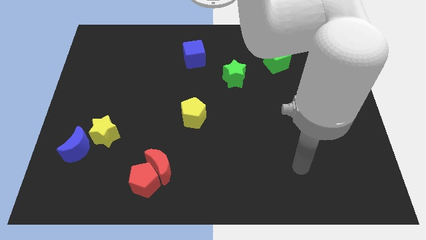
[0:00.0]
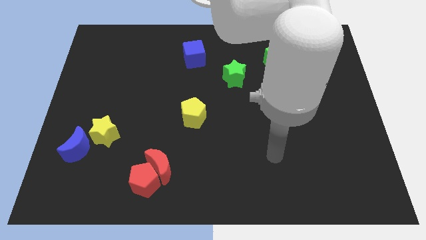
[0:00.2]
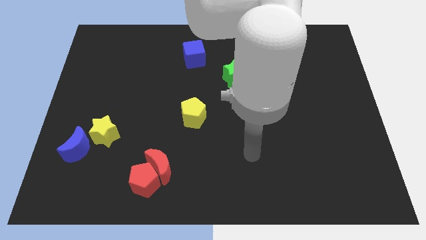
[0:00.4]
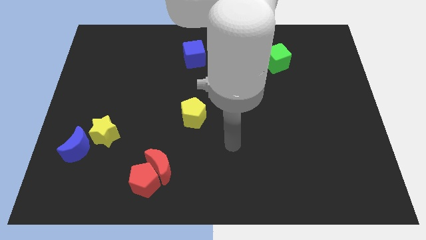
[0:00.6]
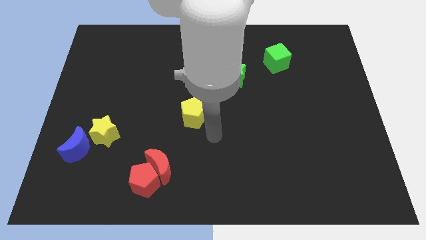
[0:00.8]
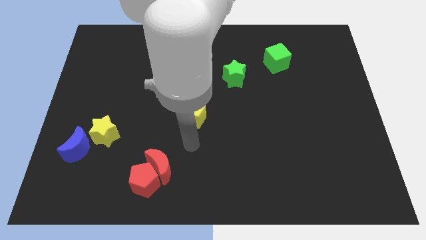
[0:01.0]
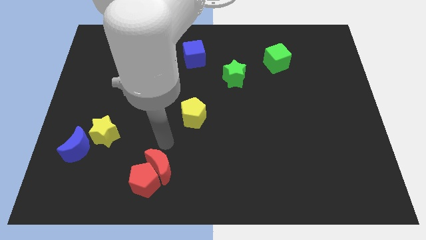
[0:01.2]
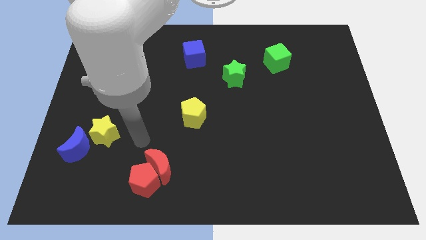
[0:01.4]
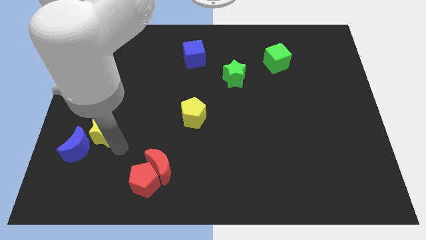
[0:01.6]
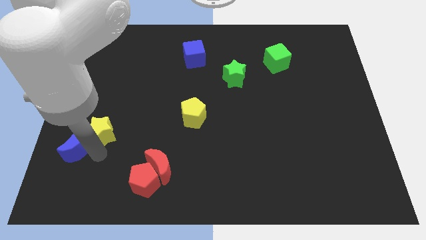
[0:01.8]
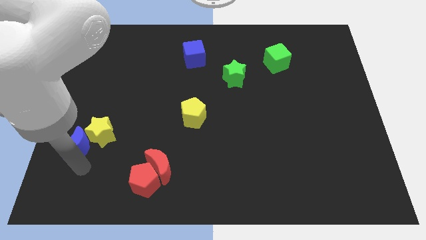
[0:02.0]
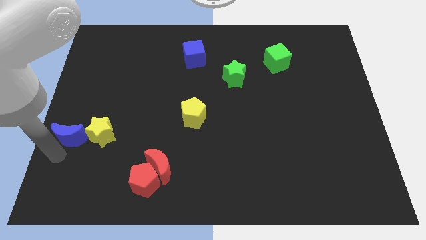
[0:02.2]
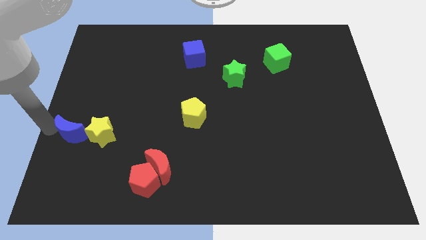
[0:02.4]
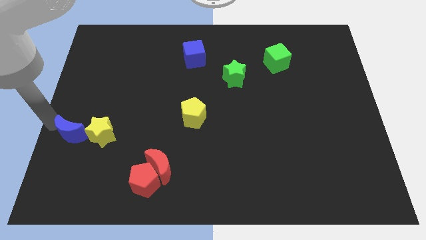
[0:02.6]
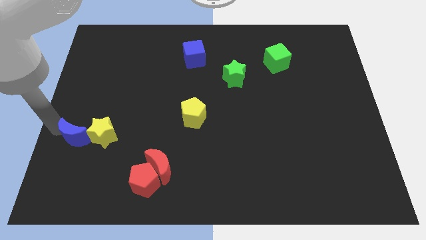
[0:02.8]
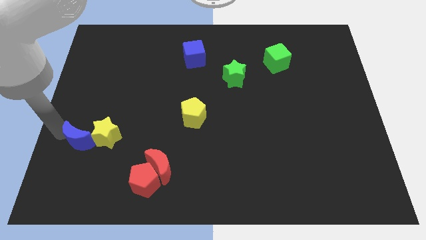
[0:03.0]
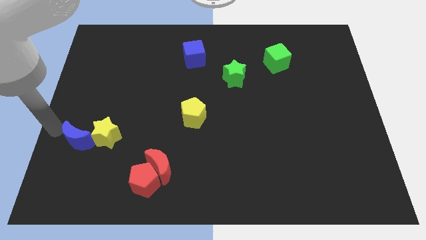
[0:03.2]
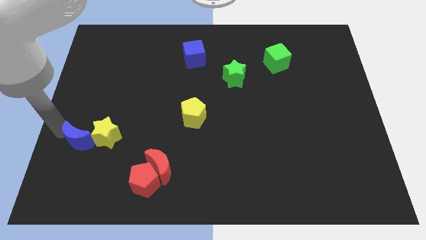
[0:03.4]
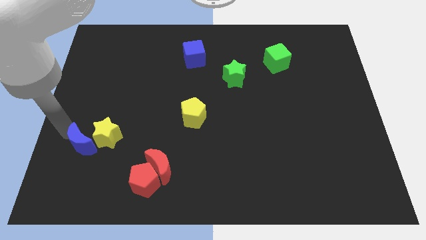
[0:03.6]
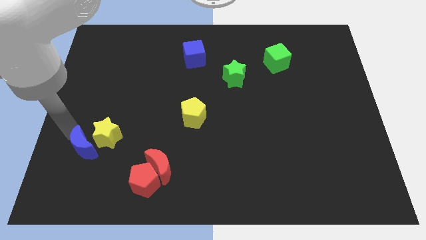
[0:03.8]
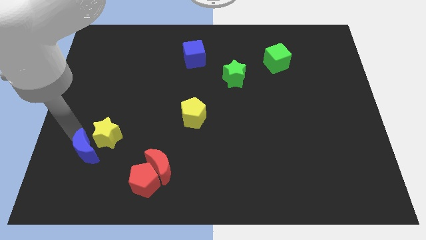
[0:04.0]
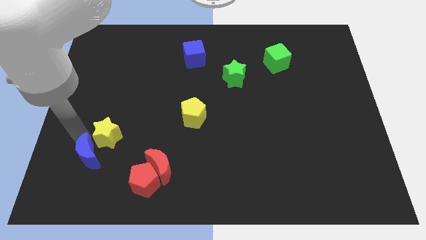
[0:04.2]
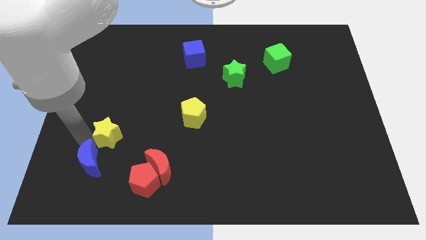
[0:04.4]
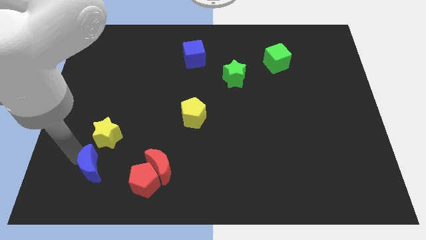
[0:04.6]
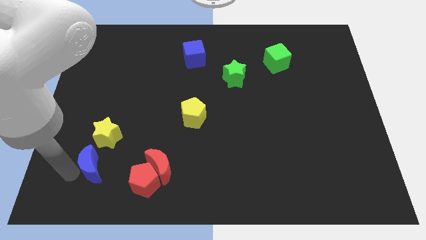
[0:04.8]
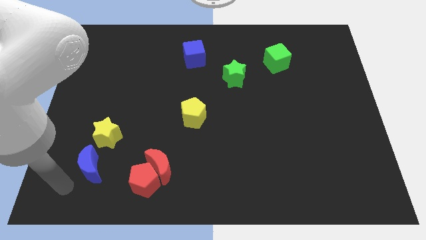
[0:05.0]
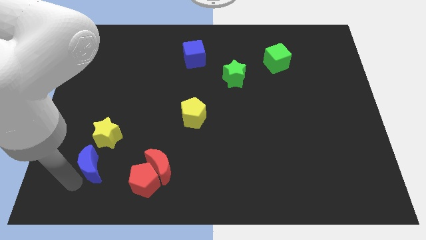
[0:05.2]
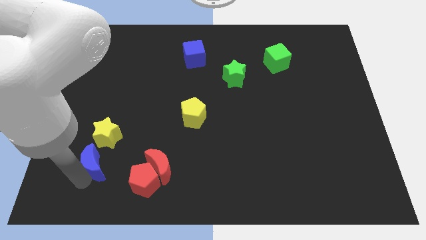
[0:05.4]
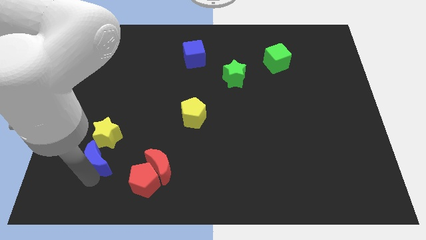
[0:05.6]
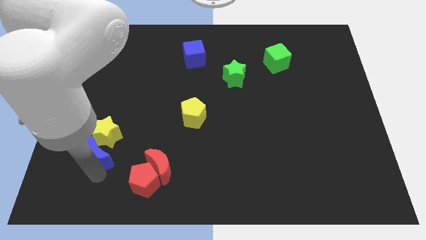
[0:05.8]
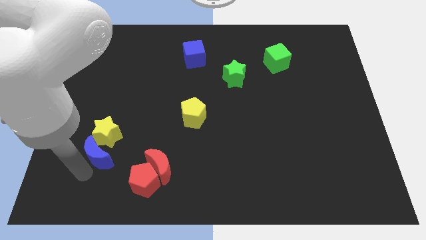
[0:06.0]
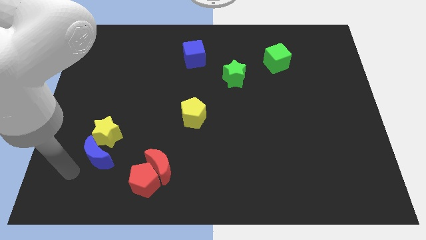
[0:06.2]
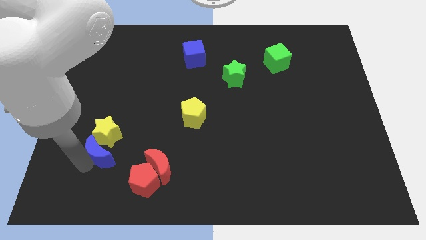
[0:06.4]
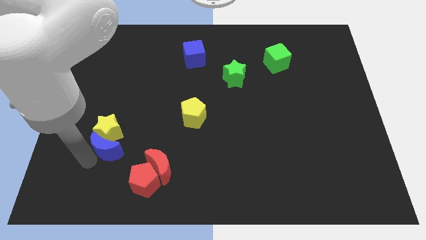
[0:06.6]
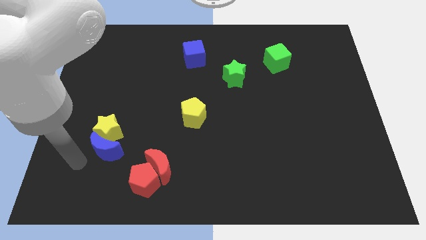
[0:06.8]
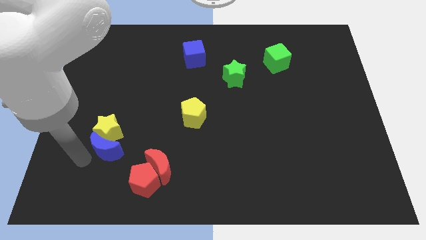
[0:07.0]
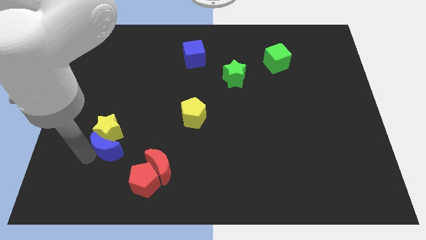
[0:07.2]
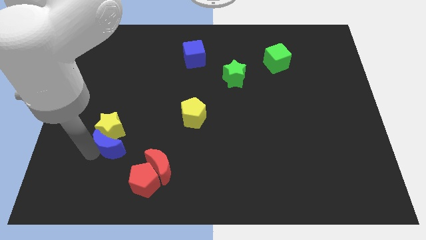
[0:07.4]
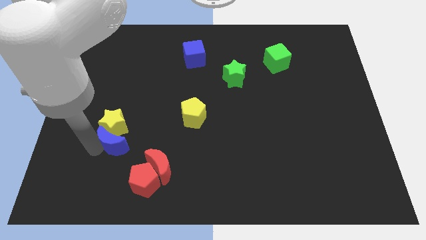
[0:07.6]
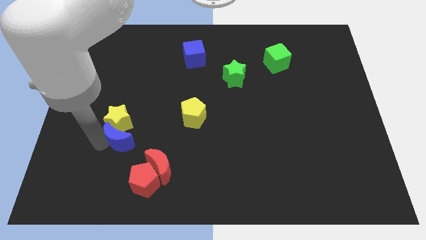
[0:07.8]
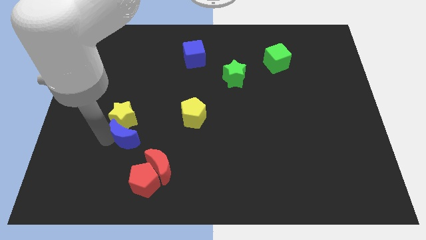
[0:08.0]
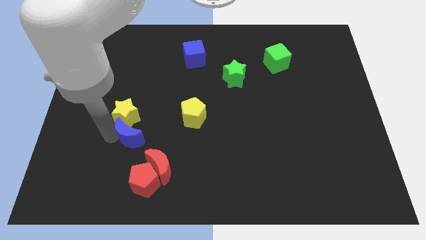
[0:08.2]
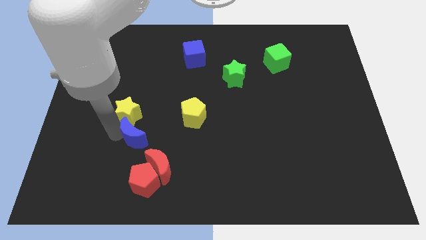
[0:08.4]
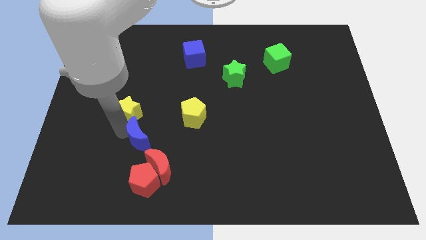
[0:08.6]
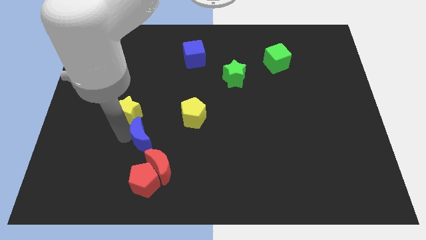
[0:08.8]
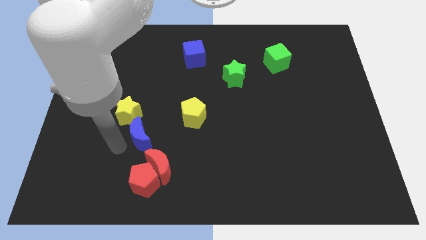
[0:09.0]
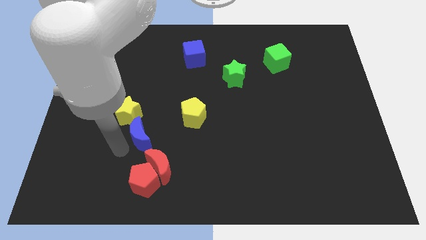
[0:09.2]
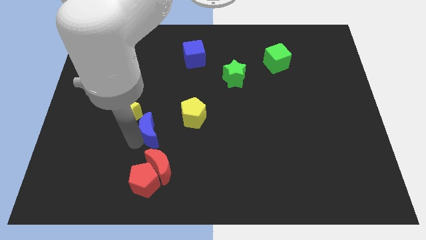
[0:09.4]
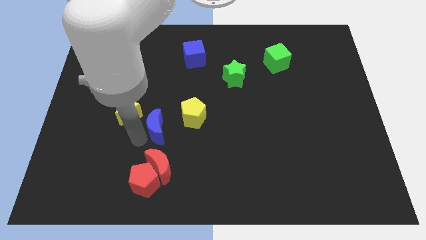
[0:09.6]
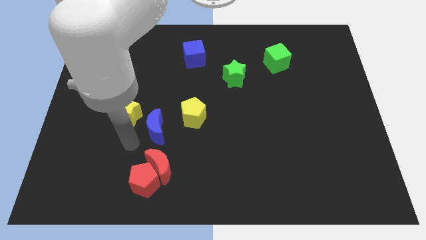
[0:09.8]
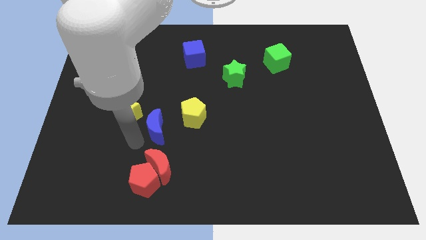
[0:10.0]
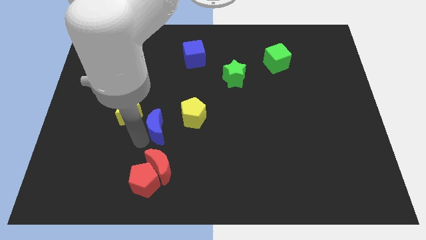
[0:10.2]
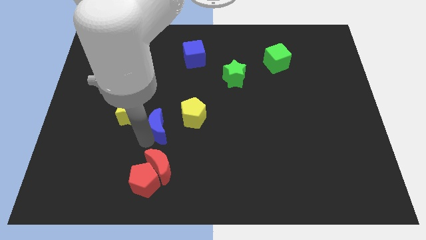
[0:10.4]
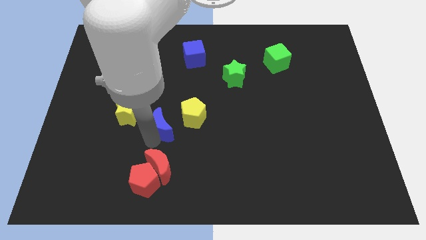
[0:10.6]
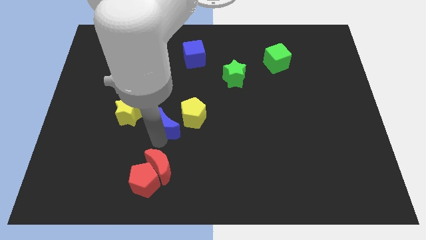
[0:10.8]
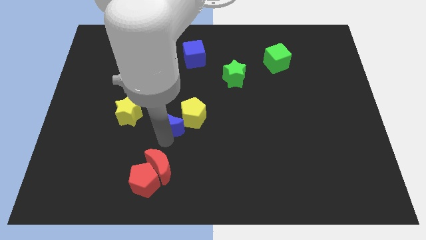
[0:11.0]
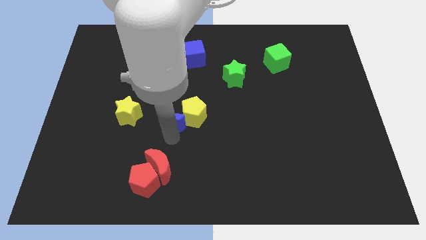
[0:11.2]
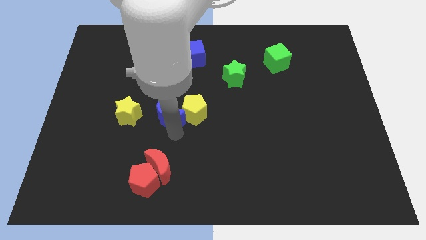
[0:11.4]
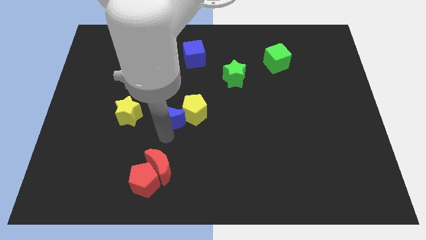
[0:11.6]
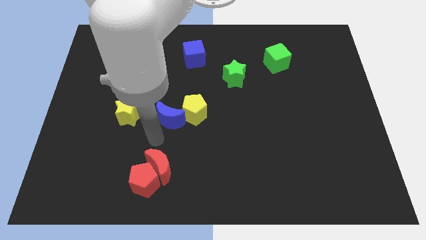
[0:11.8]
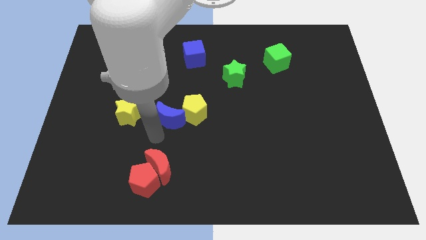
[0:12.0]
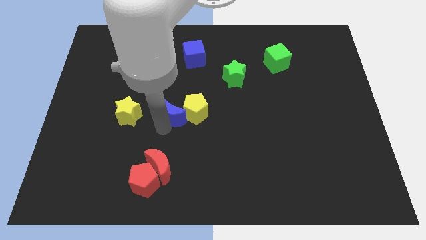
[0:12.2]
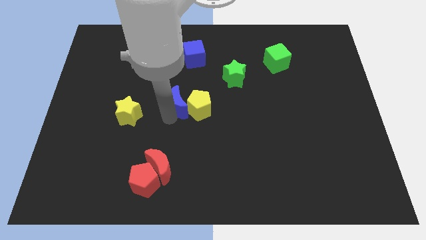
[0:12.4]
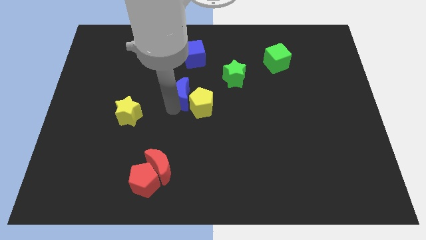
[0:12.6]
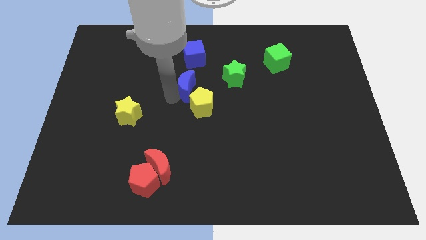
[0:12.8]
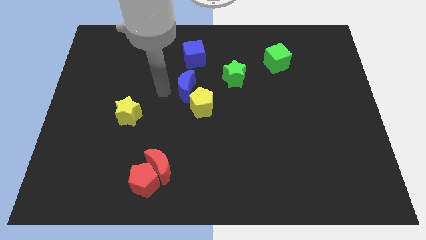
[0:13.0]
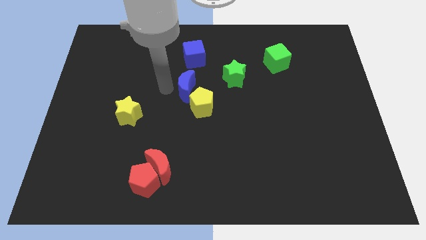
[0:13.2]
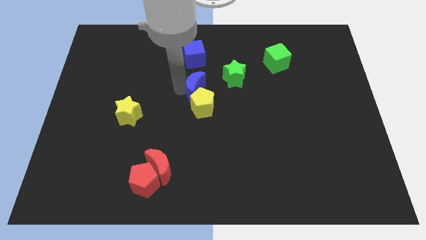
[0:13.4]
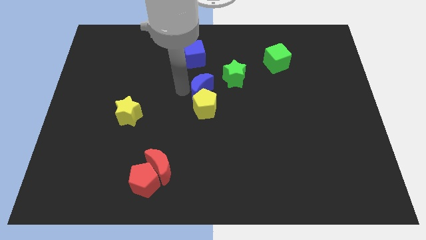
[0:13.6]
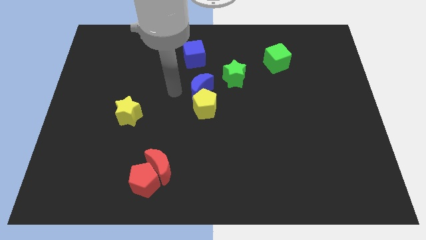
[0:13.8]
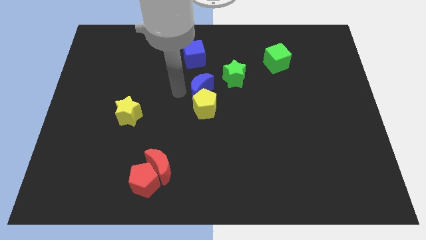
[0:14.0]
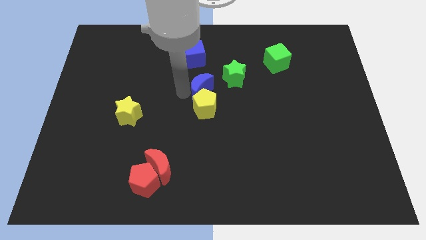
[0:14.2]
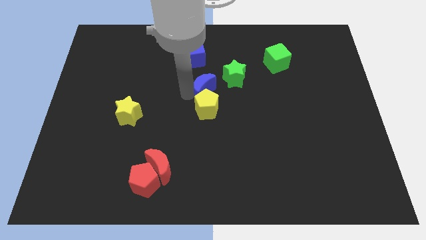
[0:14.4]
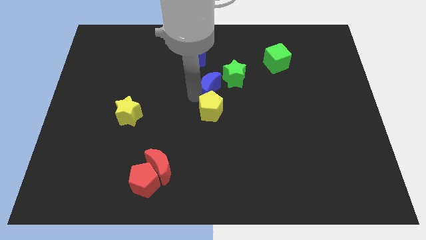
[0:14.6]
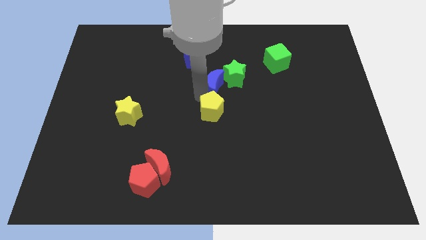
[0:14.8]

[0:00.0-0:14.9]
move the blue moon to the green star

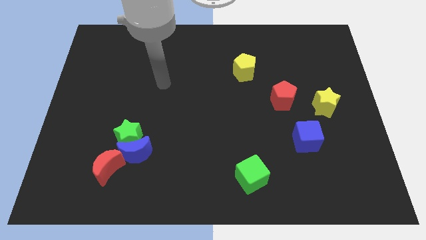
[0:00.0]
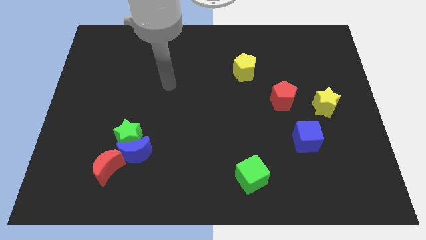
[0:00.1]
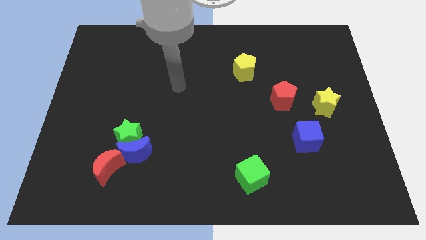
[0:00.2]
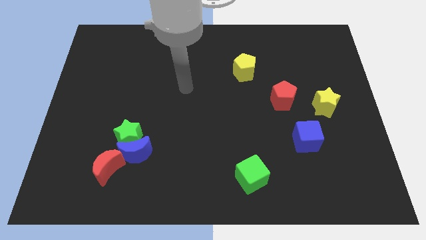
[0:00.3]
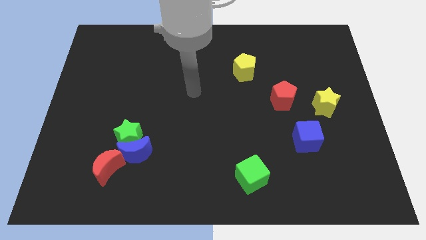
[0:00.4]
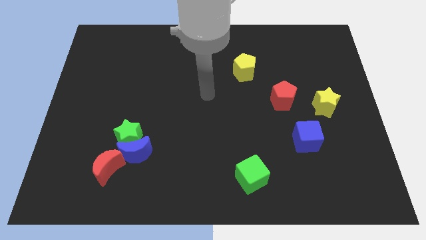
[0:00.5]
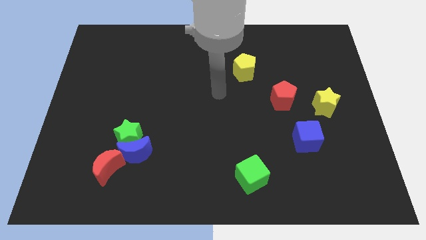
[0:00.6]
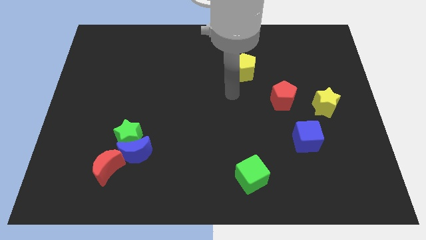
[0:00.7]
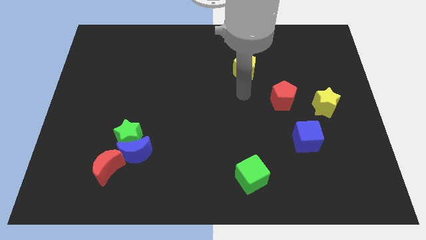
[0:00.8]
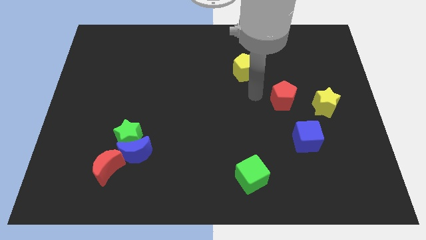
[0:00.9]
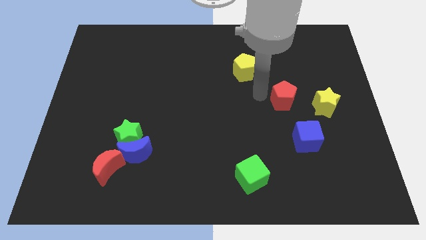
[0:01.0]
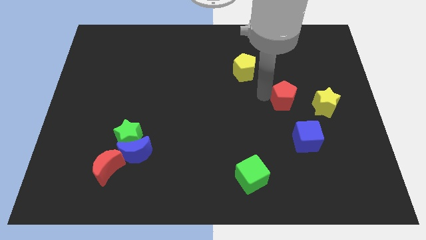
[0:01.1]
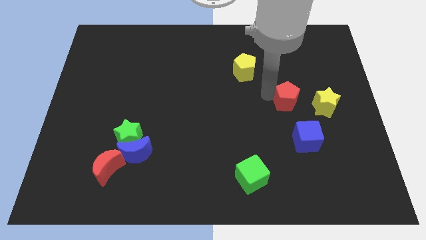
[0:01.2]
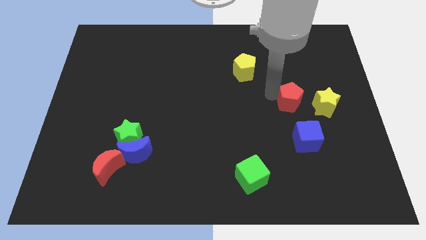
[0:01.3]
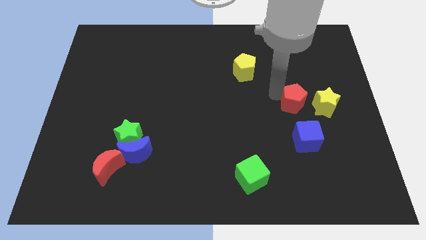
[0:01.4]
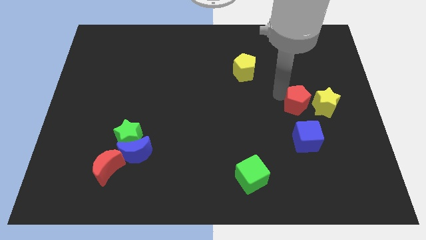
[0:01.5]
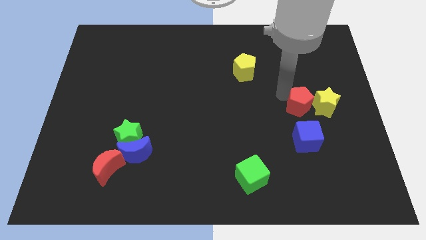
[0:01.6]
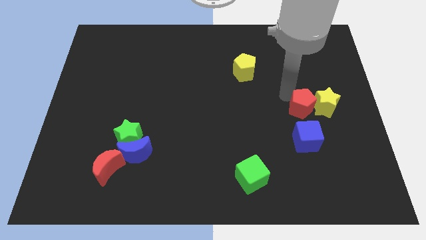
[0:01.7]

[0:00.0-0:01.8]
move the red pentagon close to the yellow star
